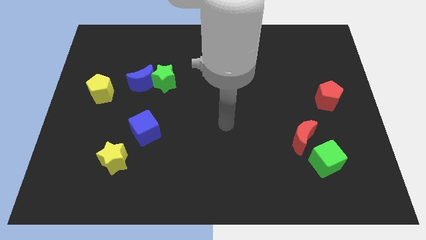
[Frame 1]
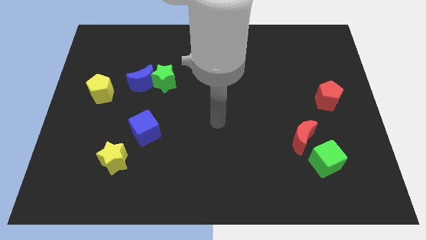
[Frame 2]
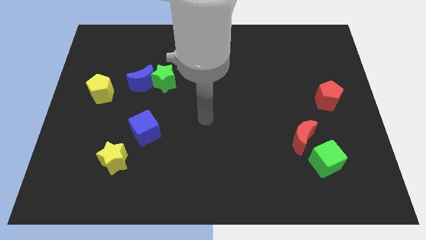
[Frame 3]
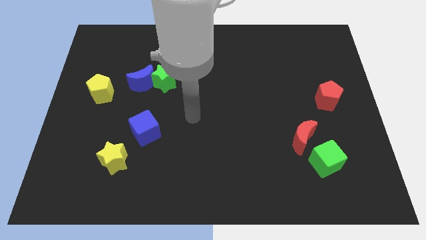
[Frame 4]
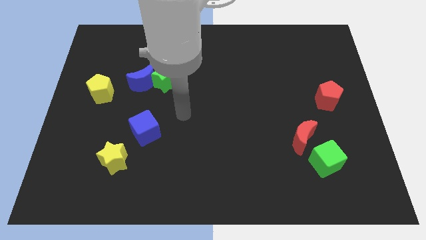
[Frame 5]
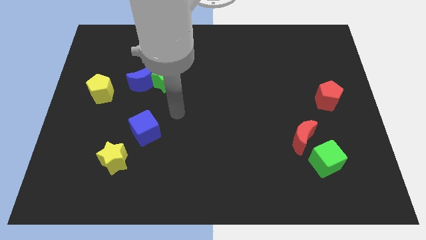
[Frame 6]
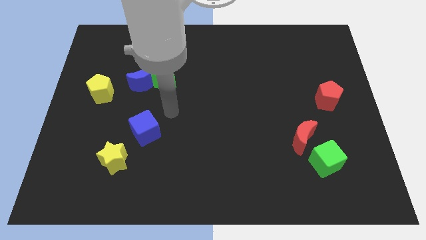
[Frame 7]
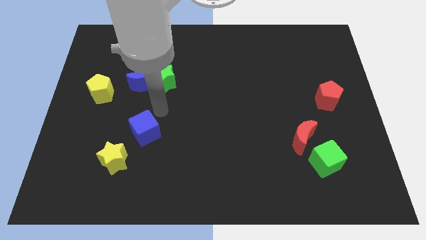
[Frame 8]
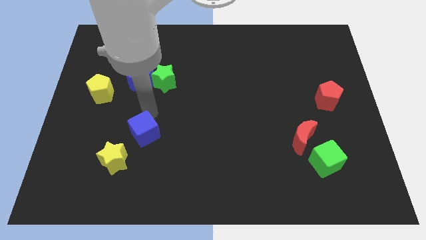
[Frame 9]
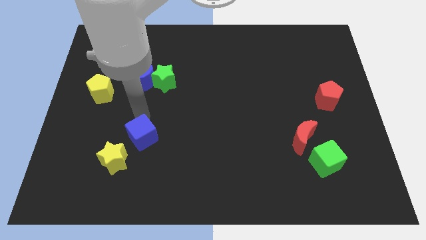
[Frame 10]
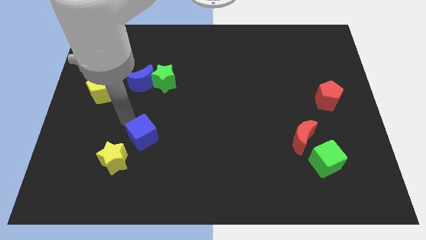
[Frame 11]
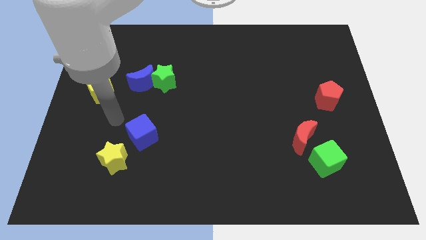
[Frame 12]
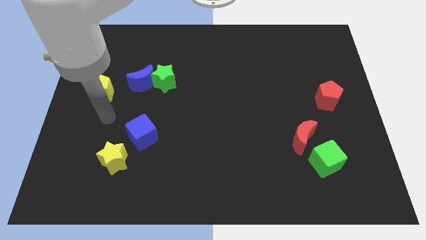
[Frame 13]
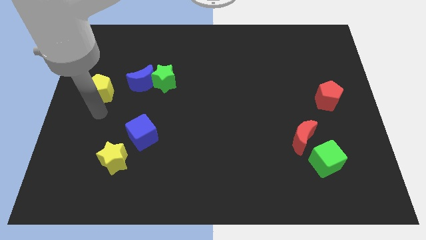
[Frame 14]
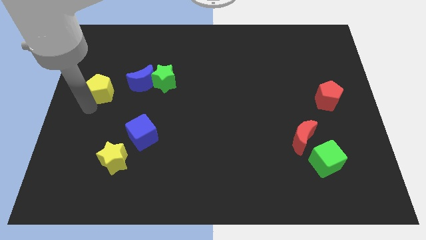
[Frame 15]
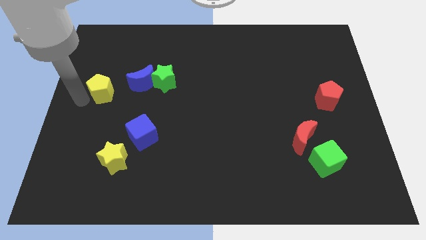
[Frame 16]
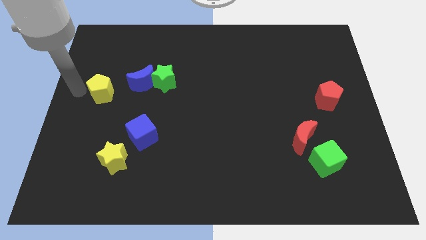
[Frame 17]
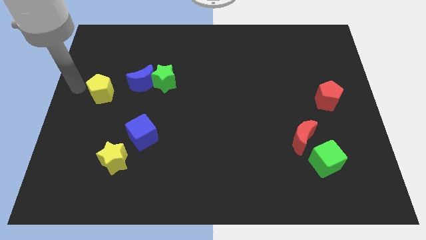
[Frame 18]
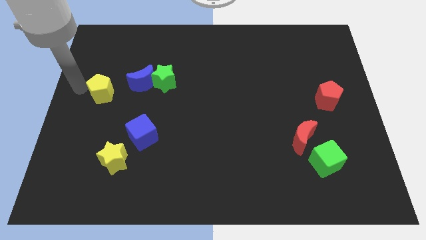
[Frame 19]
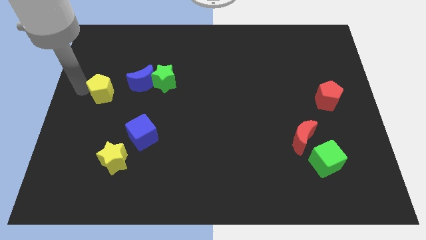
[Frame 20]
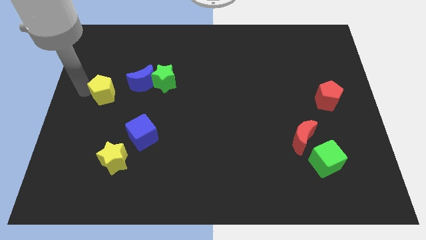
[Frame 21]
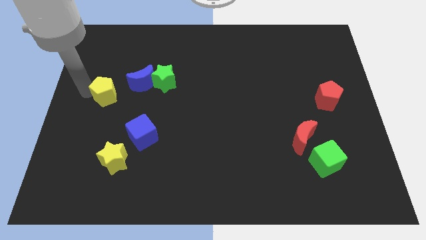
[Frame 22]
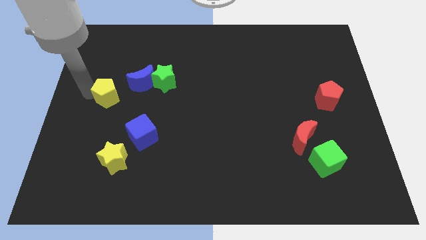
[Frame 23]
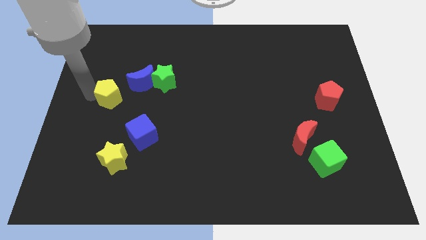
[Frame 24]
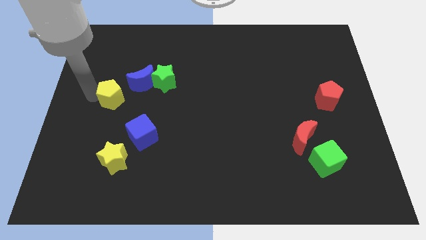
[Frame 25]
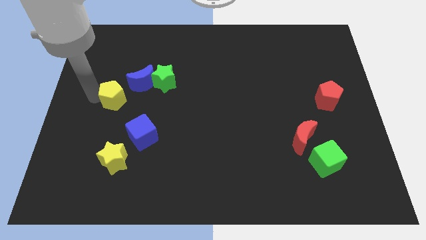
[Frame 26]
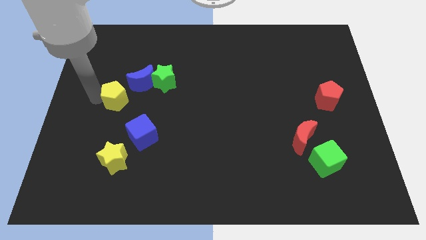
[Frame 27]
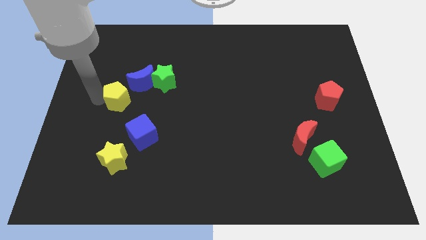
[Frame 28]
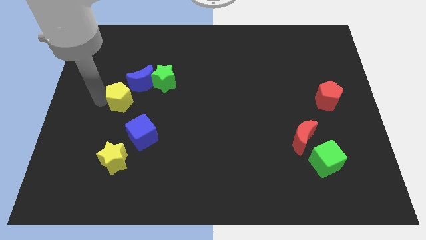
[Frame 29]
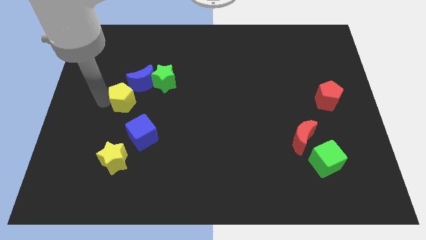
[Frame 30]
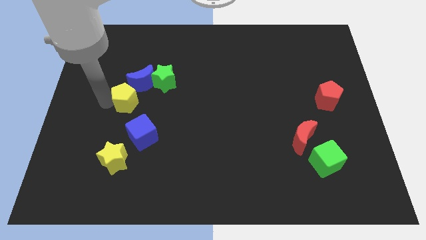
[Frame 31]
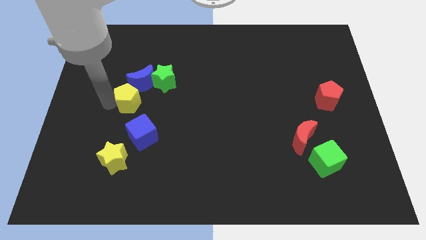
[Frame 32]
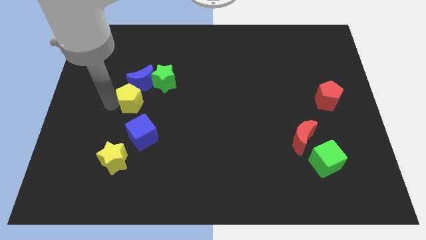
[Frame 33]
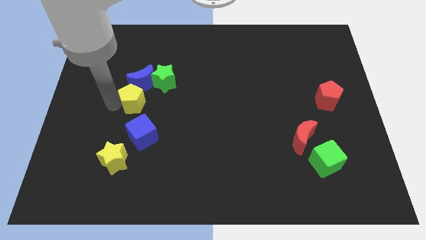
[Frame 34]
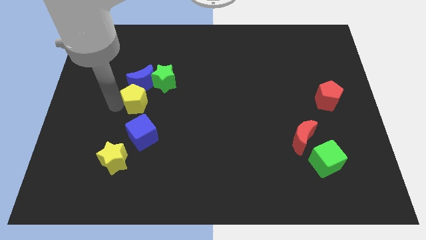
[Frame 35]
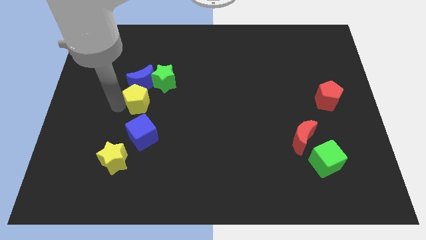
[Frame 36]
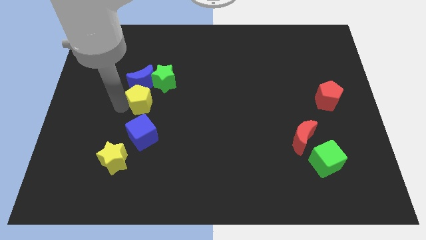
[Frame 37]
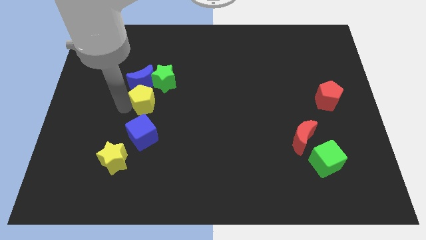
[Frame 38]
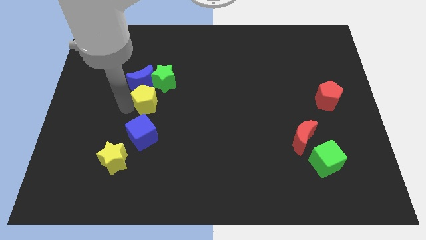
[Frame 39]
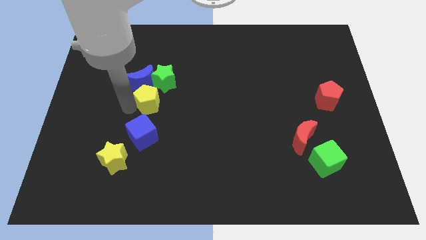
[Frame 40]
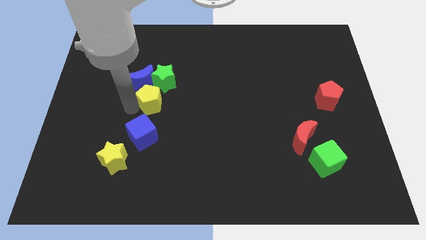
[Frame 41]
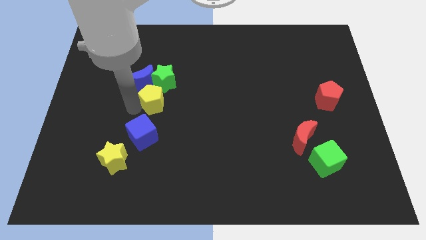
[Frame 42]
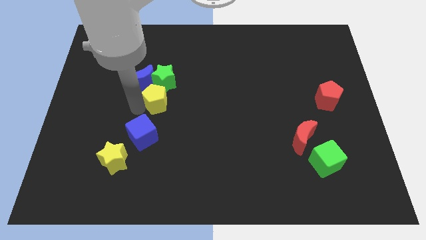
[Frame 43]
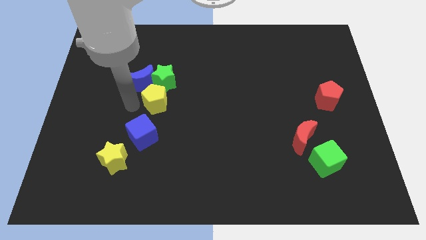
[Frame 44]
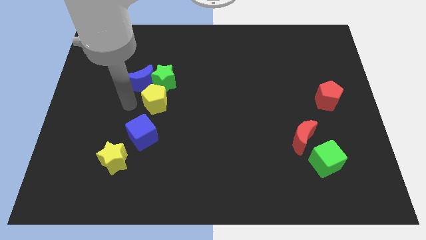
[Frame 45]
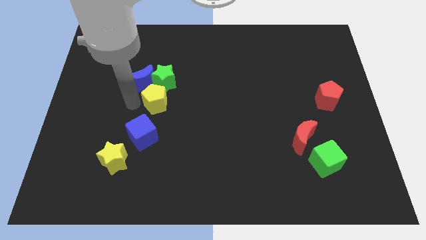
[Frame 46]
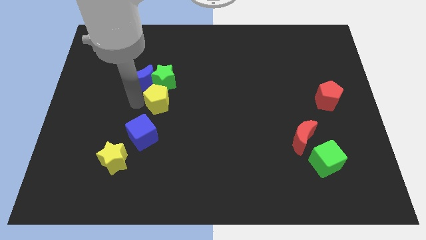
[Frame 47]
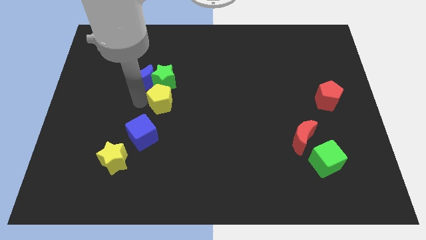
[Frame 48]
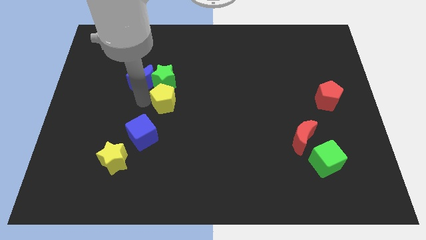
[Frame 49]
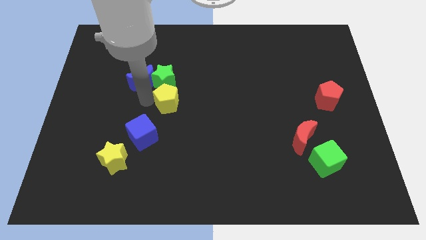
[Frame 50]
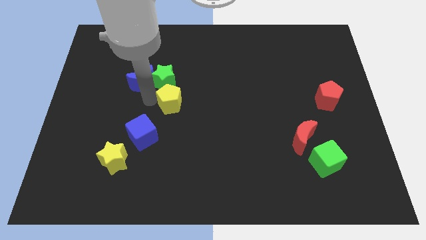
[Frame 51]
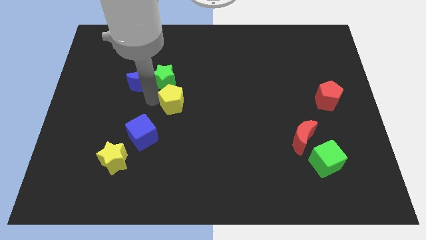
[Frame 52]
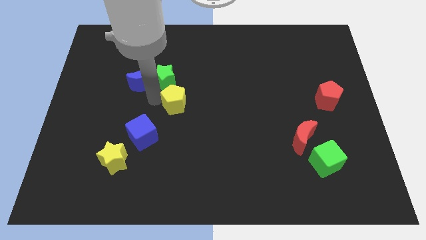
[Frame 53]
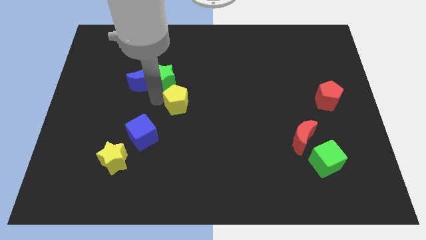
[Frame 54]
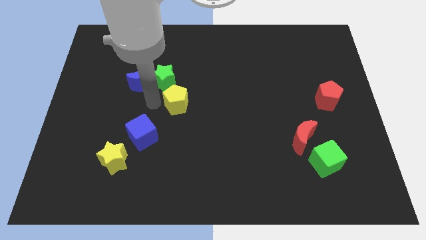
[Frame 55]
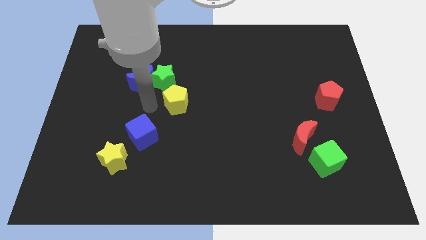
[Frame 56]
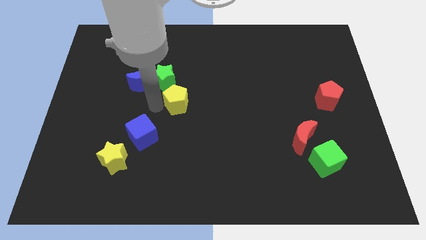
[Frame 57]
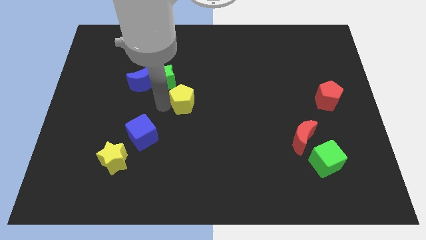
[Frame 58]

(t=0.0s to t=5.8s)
push the yellow pentagon right

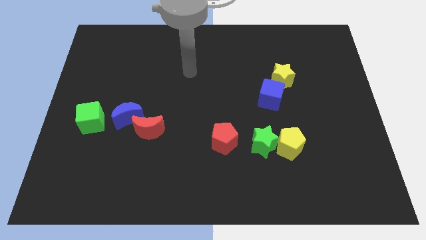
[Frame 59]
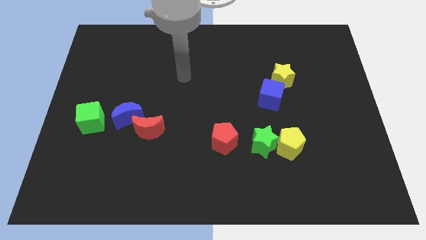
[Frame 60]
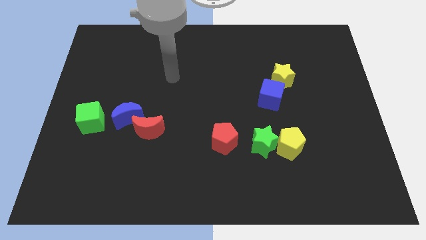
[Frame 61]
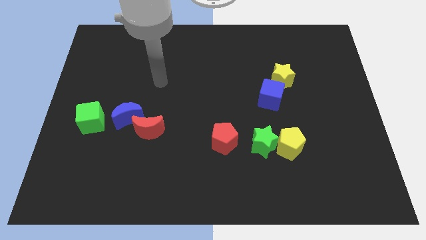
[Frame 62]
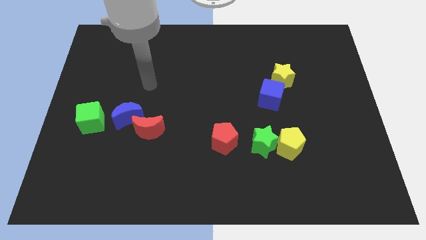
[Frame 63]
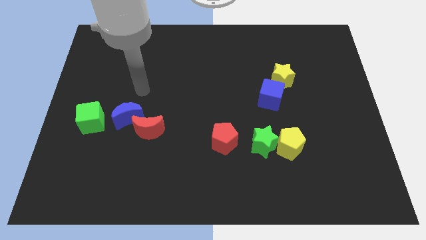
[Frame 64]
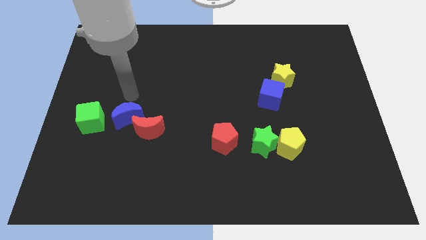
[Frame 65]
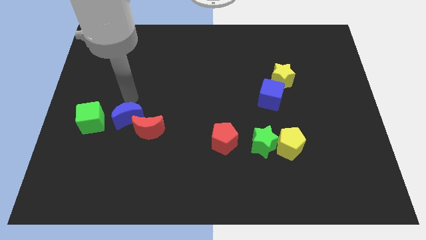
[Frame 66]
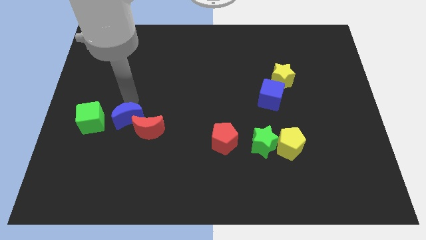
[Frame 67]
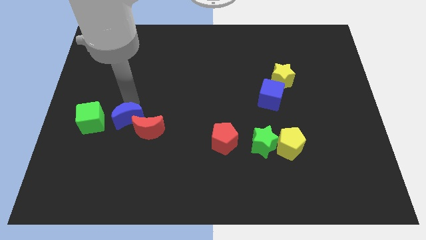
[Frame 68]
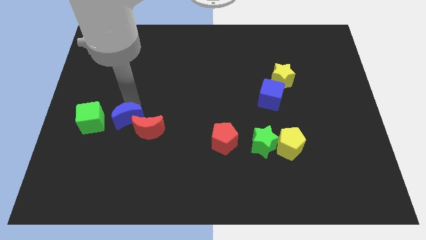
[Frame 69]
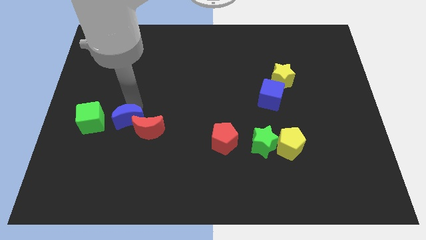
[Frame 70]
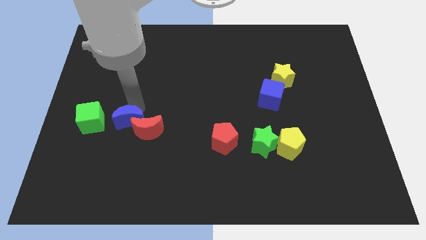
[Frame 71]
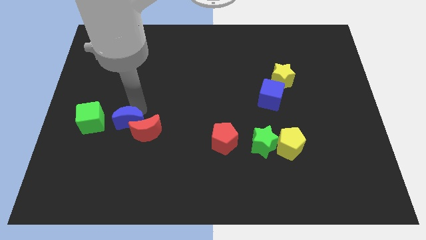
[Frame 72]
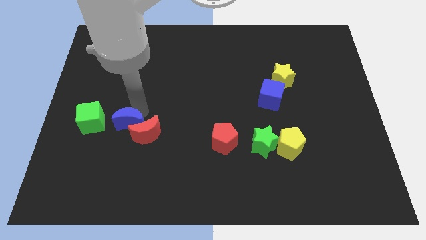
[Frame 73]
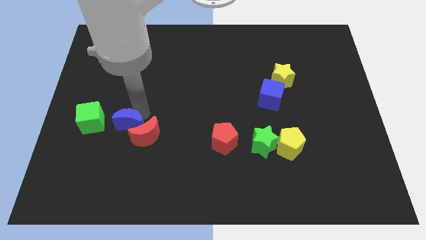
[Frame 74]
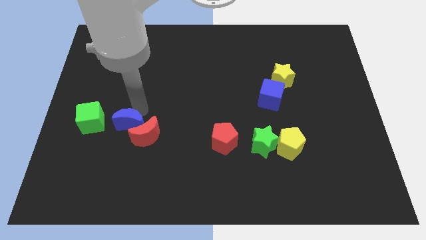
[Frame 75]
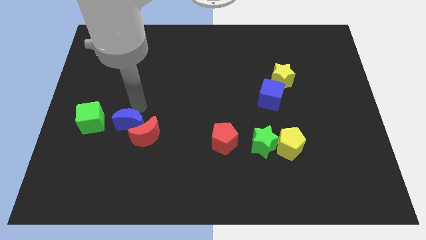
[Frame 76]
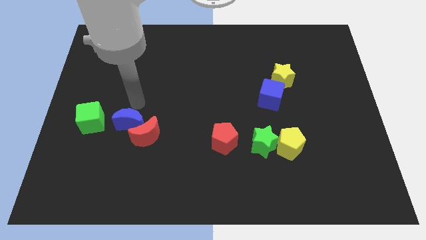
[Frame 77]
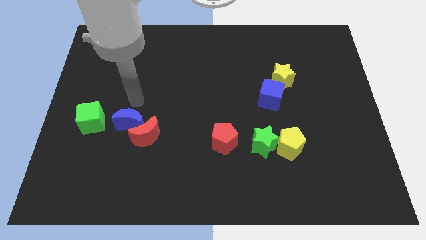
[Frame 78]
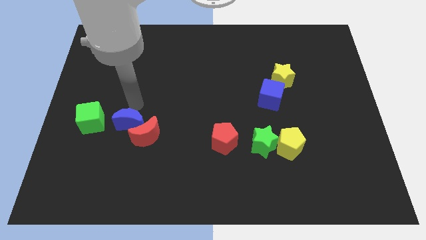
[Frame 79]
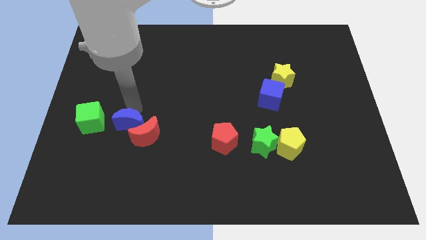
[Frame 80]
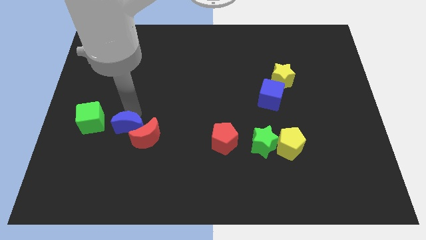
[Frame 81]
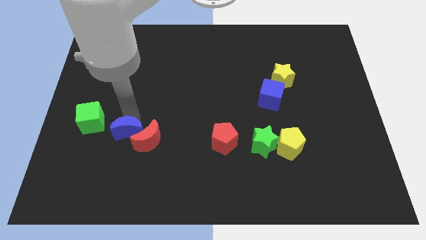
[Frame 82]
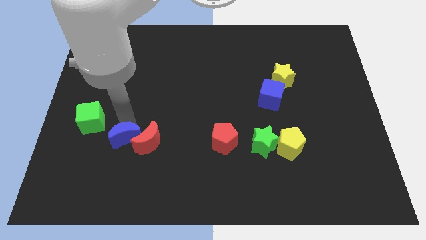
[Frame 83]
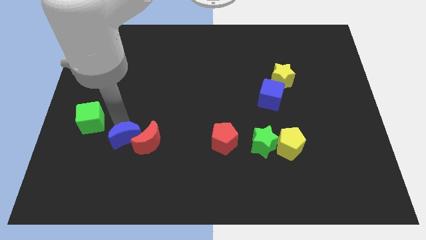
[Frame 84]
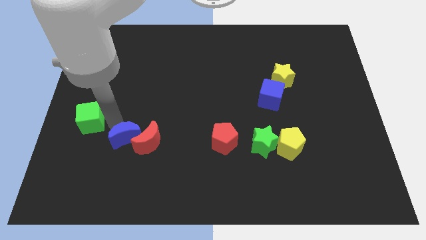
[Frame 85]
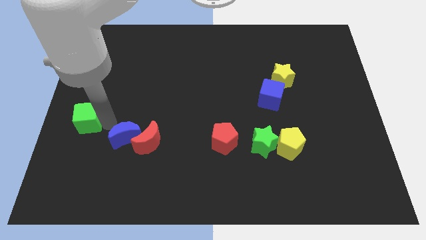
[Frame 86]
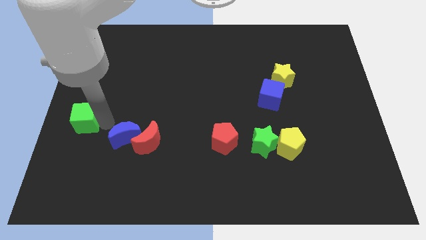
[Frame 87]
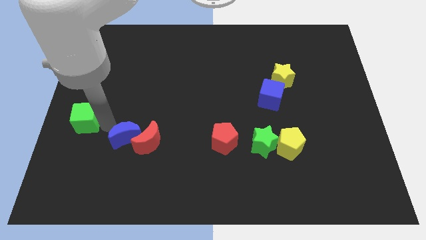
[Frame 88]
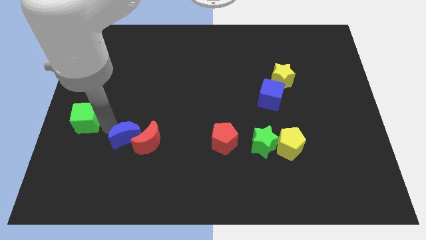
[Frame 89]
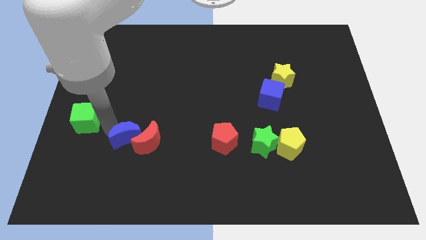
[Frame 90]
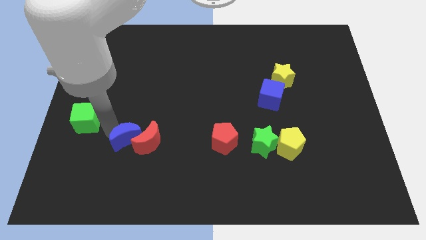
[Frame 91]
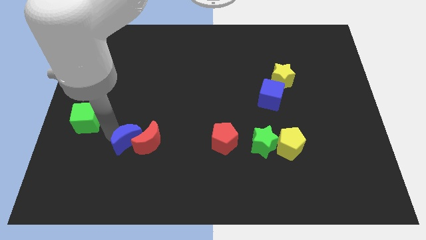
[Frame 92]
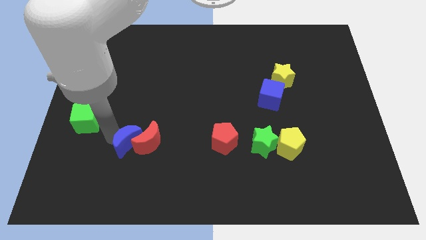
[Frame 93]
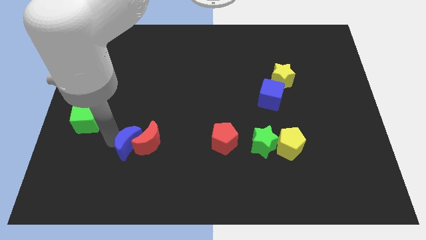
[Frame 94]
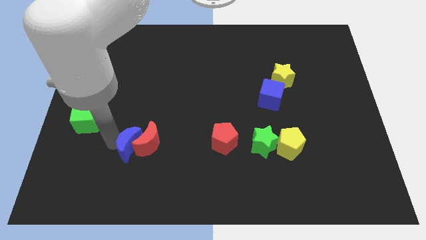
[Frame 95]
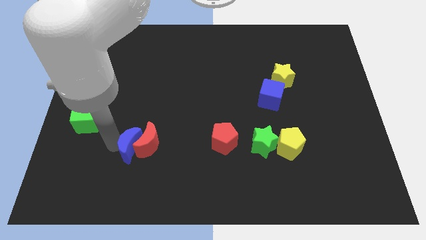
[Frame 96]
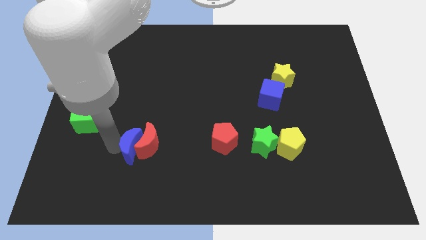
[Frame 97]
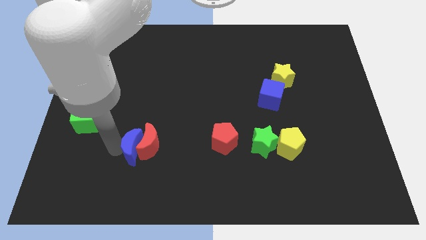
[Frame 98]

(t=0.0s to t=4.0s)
slightly slide the blue moon downwards and to the right
